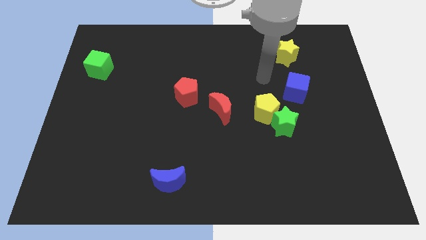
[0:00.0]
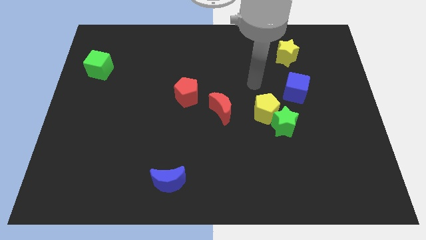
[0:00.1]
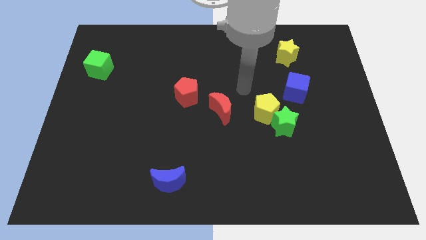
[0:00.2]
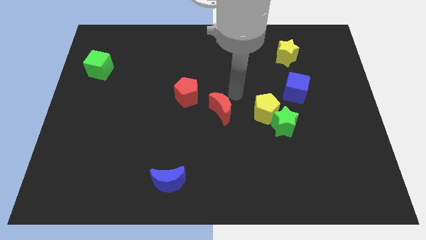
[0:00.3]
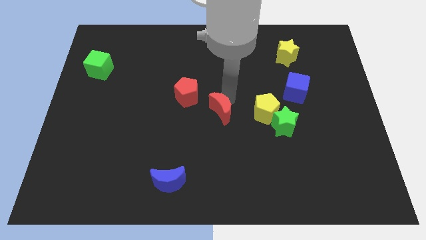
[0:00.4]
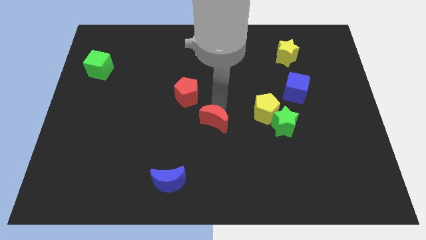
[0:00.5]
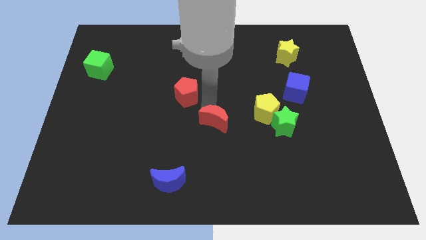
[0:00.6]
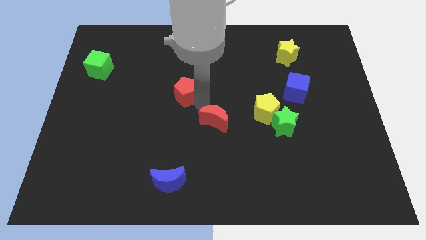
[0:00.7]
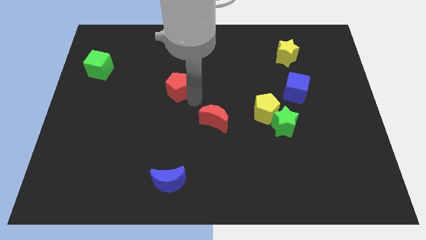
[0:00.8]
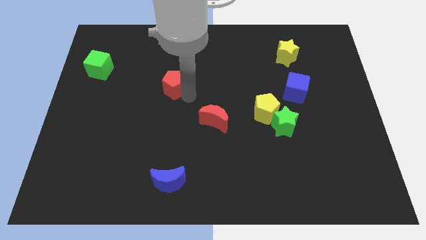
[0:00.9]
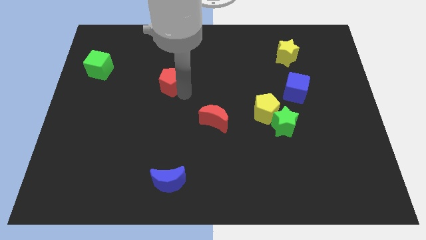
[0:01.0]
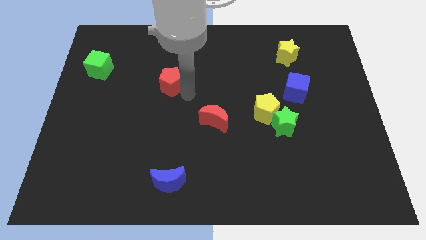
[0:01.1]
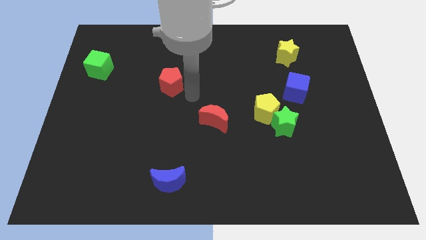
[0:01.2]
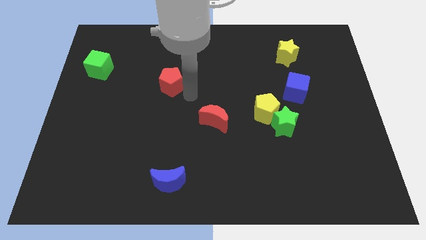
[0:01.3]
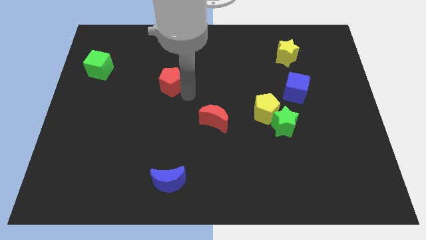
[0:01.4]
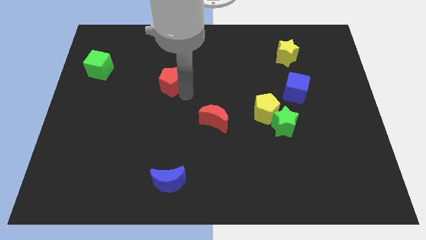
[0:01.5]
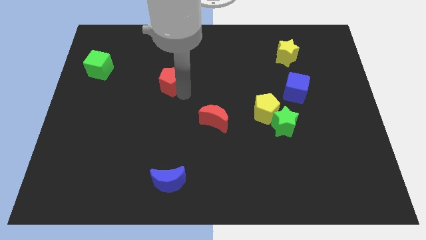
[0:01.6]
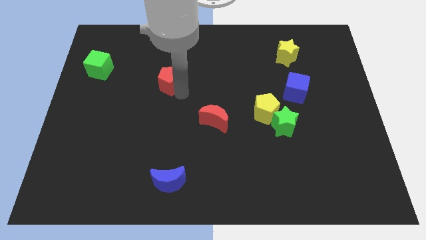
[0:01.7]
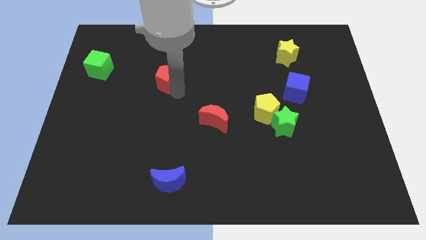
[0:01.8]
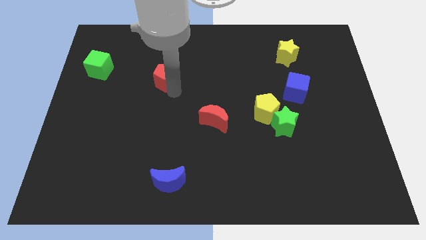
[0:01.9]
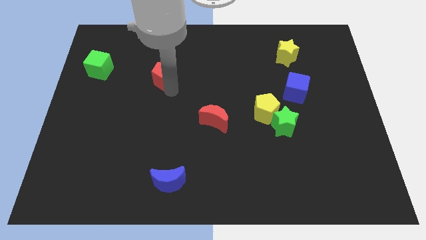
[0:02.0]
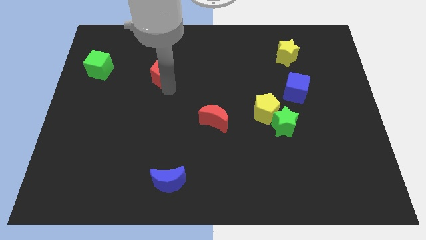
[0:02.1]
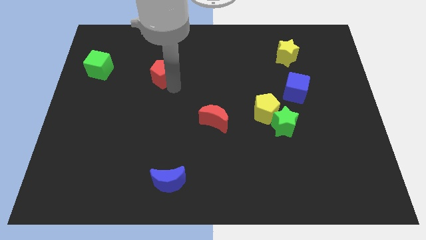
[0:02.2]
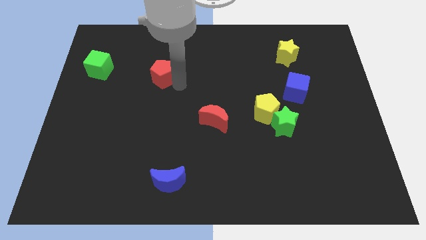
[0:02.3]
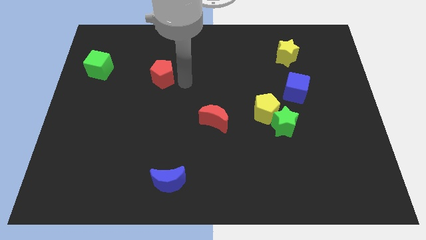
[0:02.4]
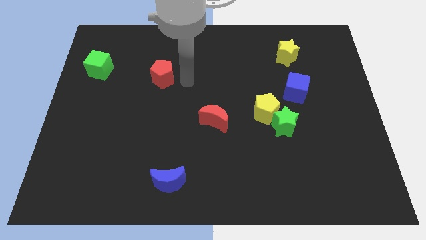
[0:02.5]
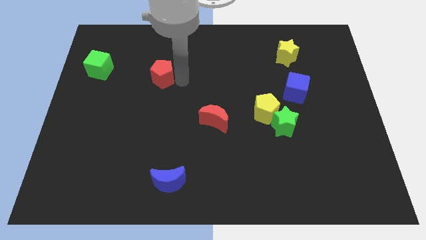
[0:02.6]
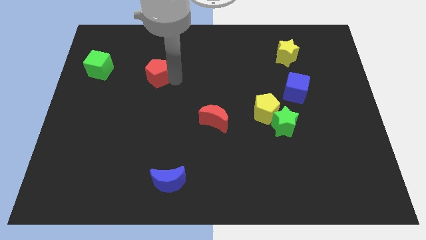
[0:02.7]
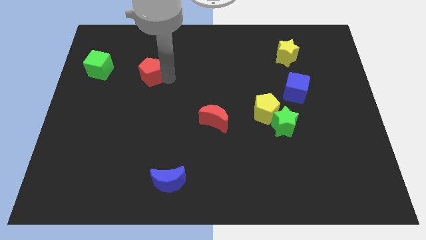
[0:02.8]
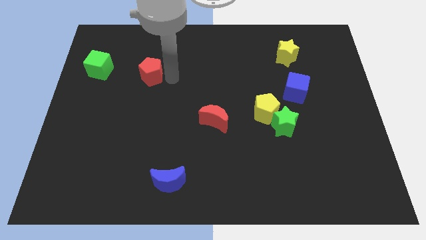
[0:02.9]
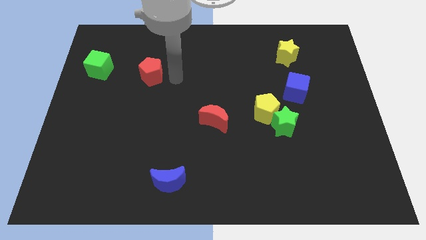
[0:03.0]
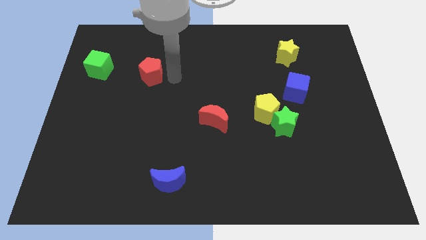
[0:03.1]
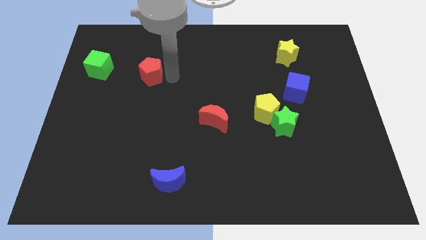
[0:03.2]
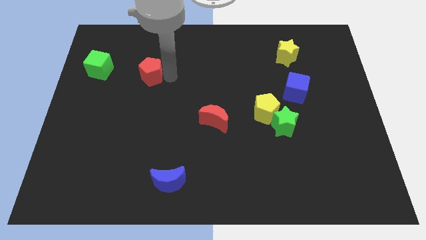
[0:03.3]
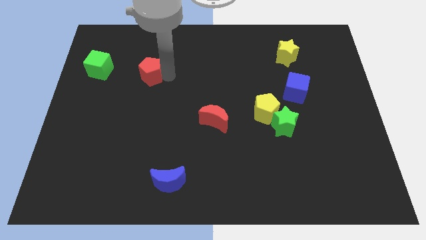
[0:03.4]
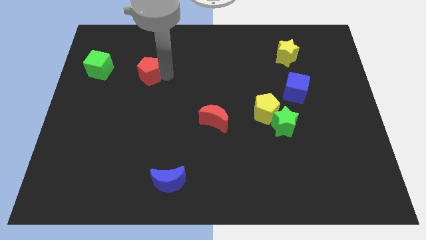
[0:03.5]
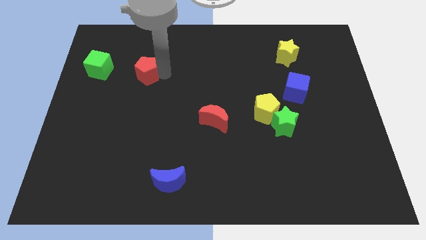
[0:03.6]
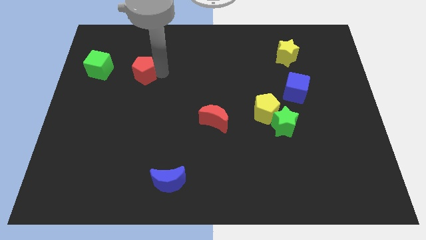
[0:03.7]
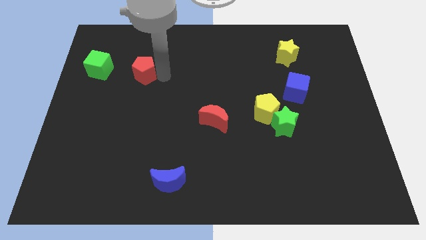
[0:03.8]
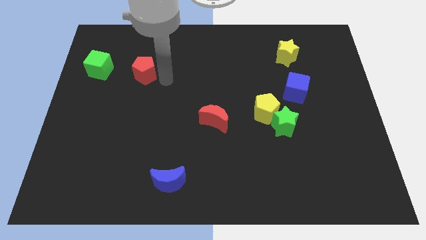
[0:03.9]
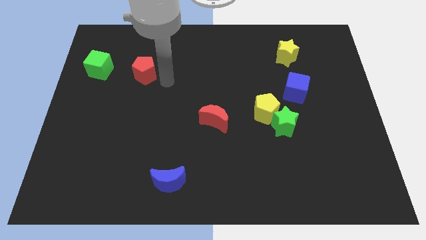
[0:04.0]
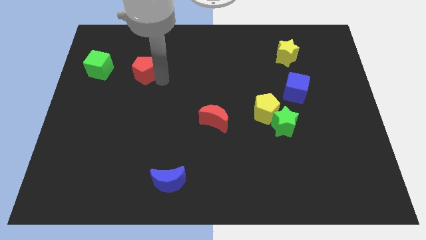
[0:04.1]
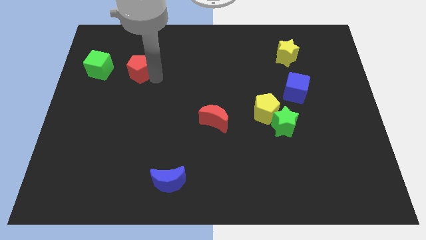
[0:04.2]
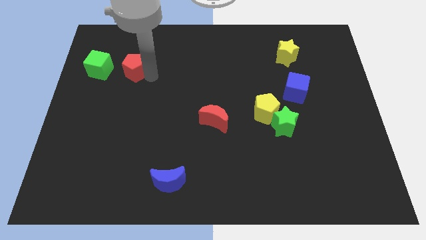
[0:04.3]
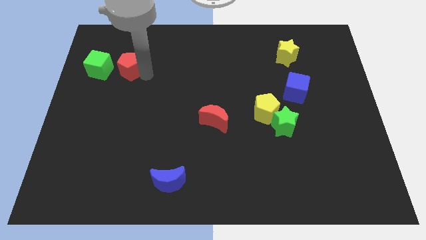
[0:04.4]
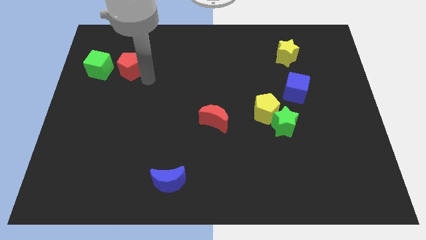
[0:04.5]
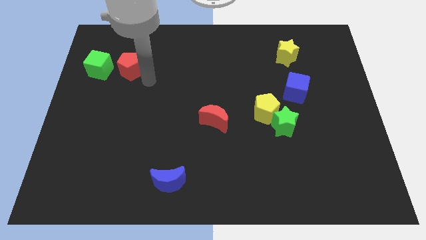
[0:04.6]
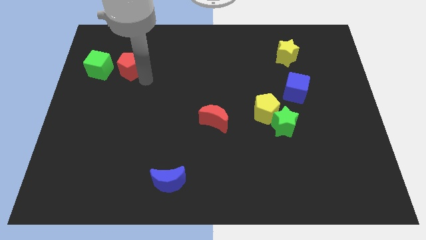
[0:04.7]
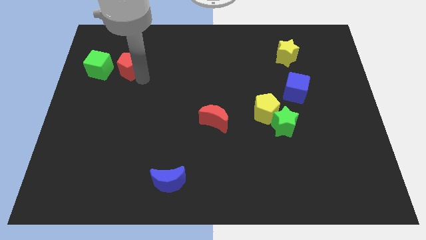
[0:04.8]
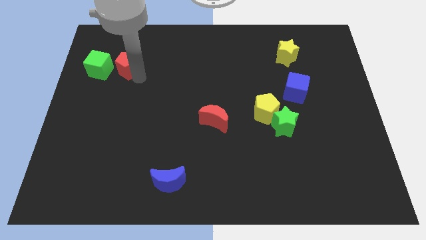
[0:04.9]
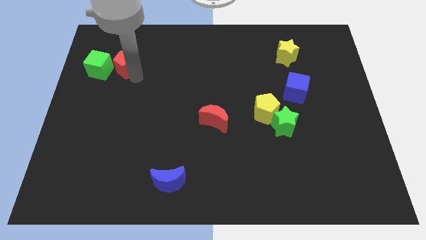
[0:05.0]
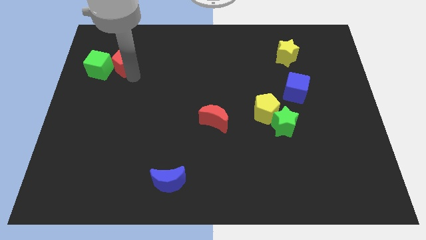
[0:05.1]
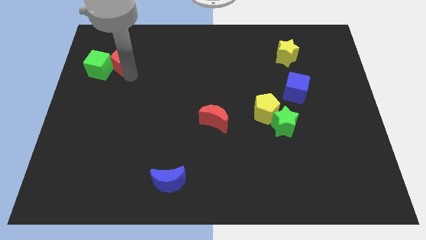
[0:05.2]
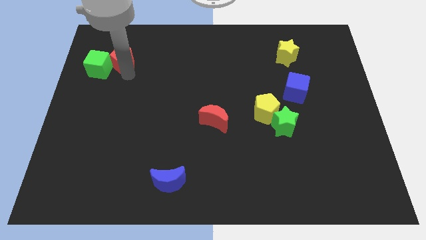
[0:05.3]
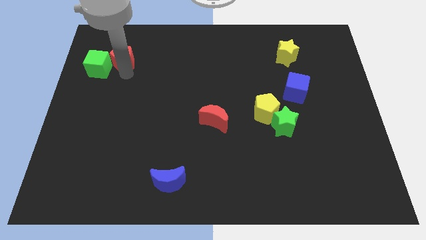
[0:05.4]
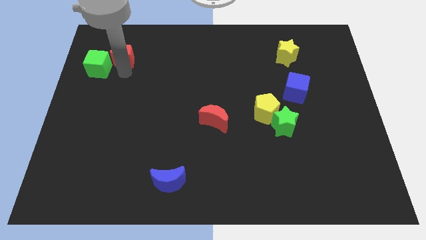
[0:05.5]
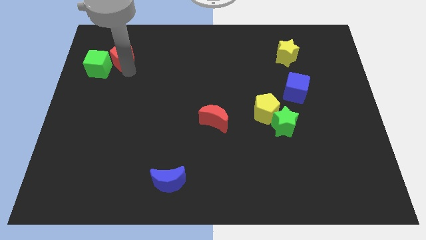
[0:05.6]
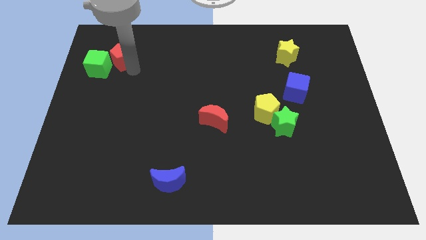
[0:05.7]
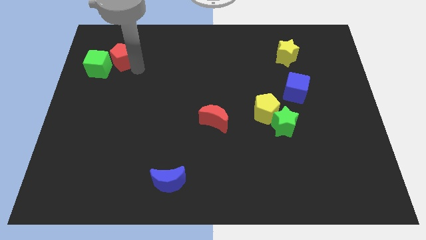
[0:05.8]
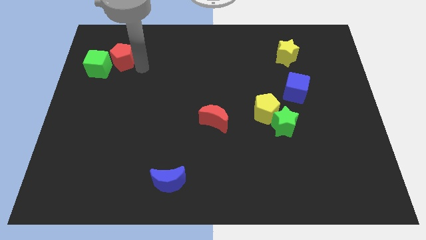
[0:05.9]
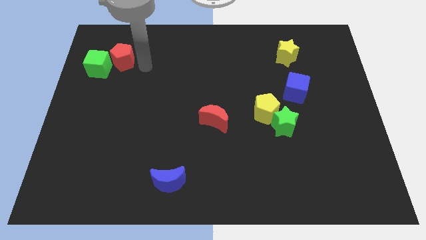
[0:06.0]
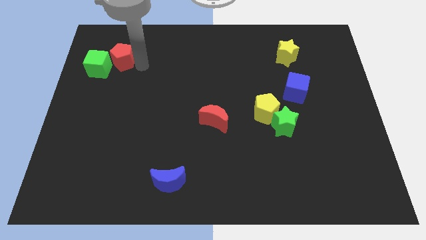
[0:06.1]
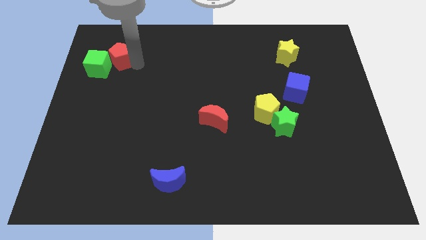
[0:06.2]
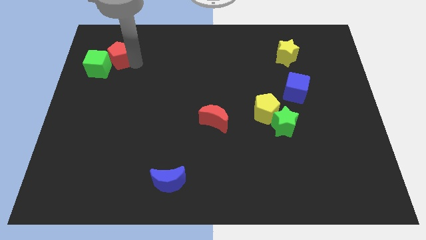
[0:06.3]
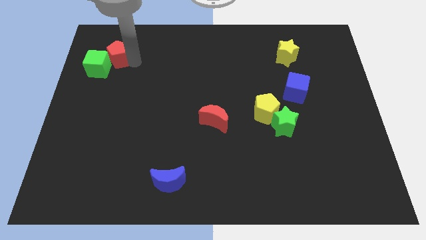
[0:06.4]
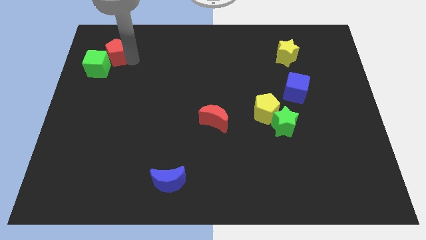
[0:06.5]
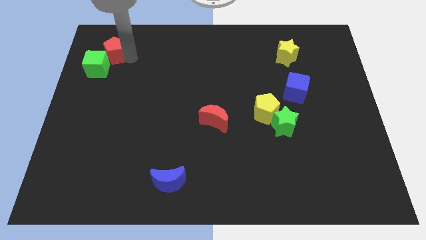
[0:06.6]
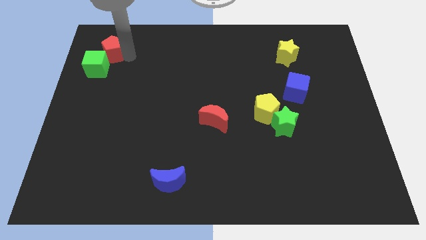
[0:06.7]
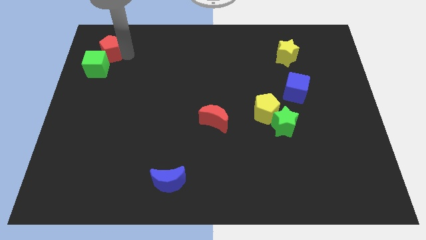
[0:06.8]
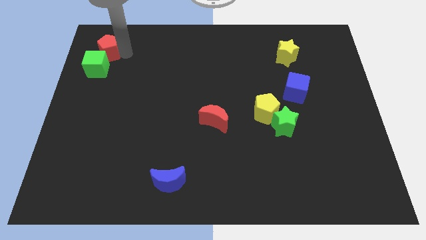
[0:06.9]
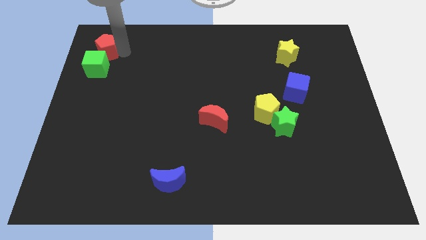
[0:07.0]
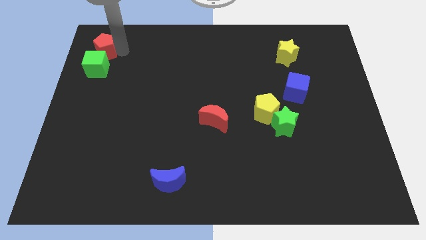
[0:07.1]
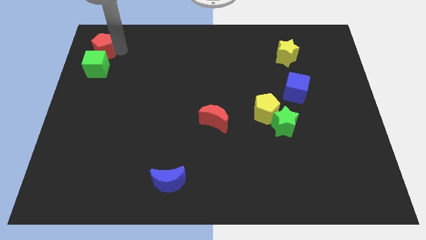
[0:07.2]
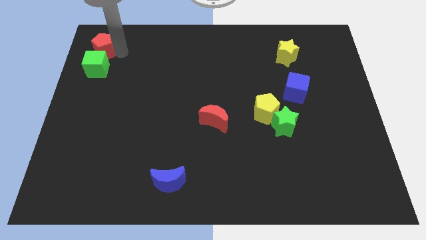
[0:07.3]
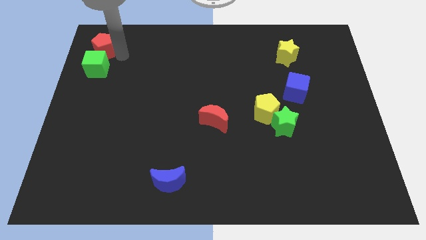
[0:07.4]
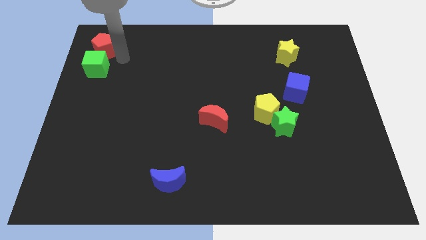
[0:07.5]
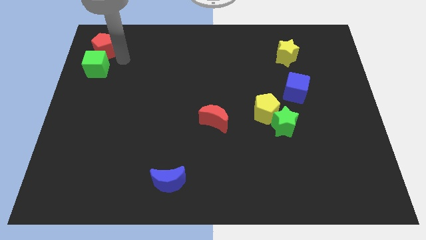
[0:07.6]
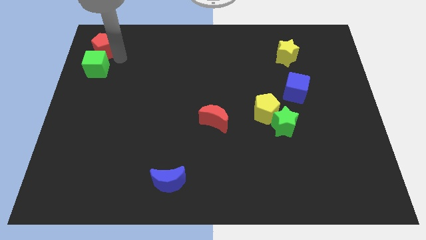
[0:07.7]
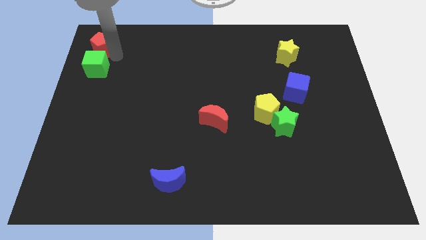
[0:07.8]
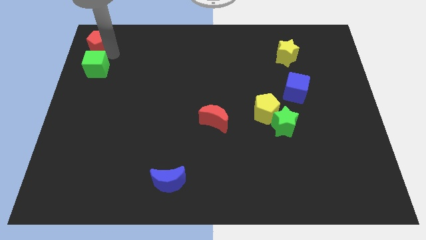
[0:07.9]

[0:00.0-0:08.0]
push the red pentagon to the top left corner
